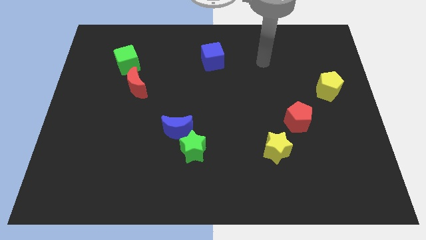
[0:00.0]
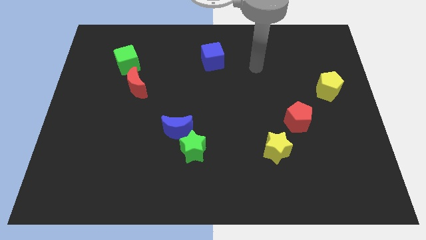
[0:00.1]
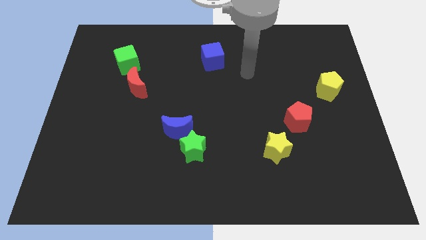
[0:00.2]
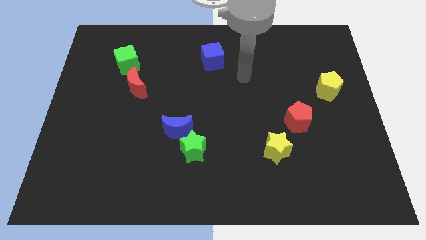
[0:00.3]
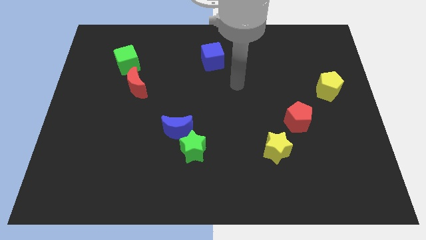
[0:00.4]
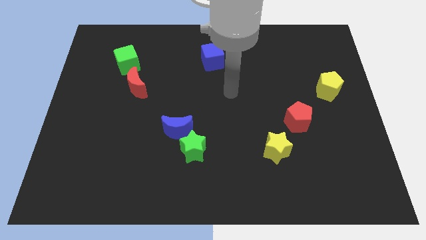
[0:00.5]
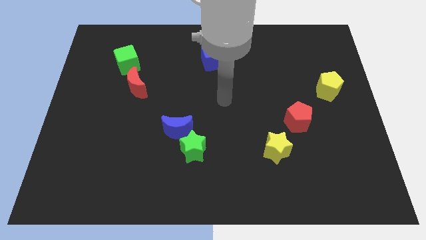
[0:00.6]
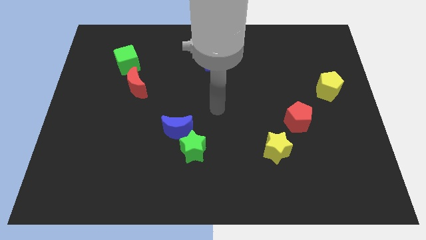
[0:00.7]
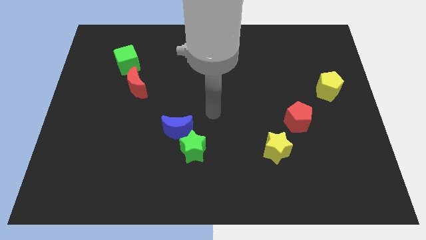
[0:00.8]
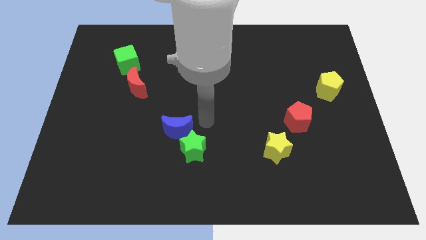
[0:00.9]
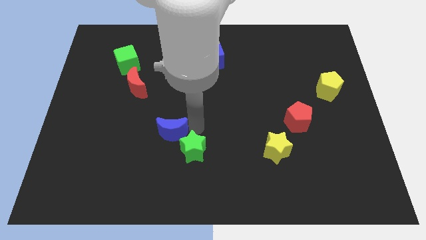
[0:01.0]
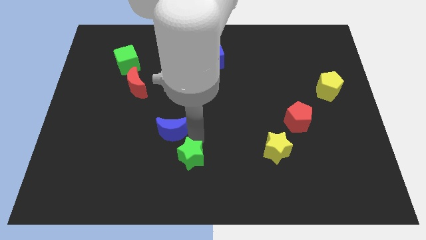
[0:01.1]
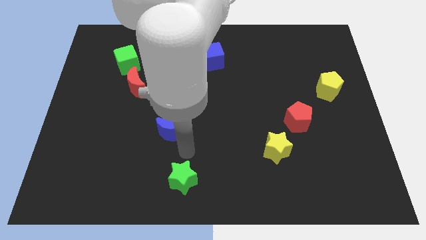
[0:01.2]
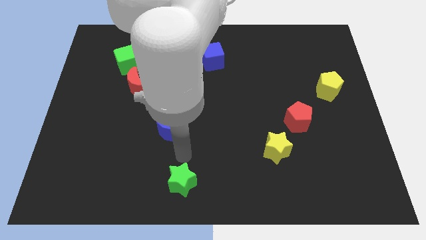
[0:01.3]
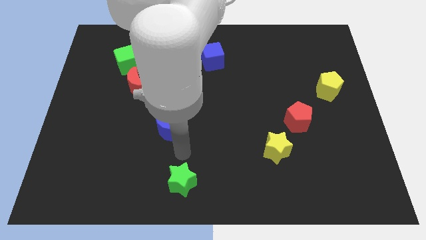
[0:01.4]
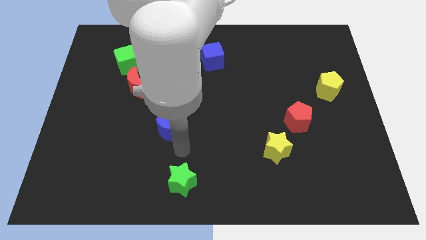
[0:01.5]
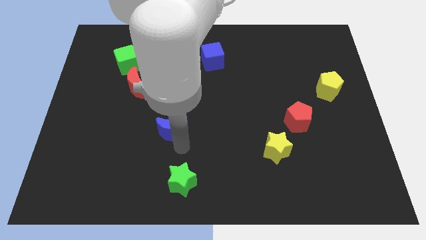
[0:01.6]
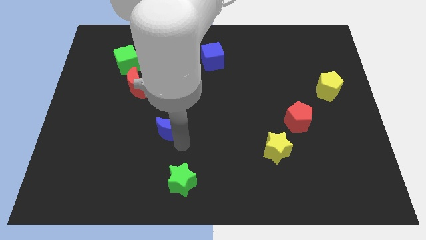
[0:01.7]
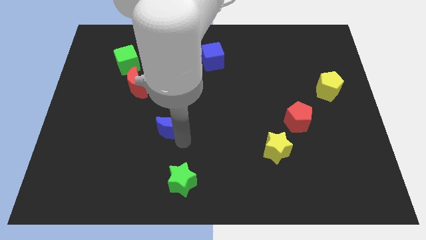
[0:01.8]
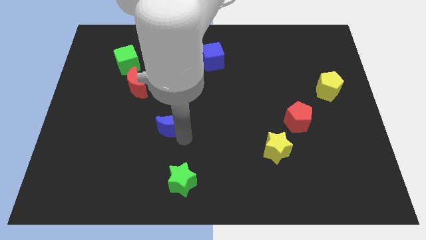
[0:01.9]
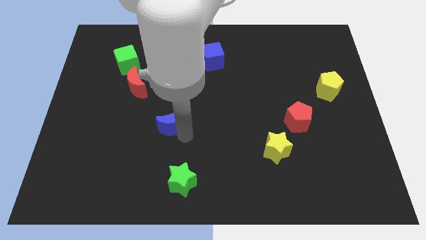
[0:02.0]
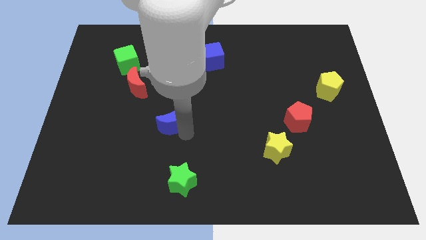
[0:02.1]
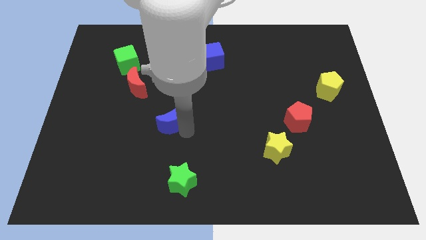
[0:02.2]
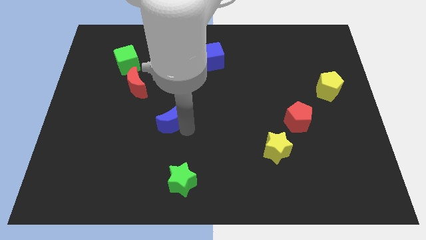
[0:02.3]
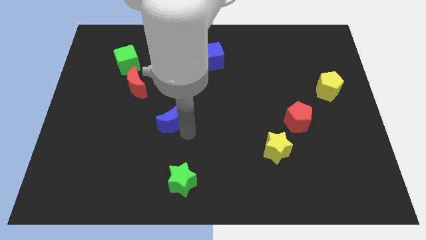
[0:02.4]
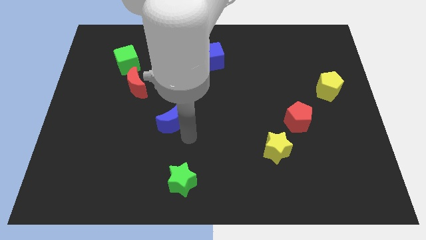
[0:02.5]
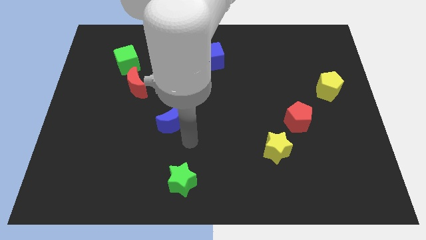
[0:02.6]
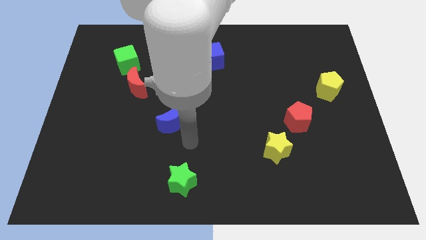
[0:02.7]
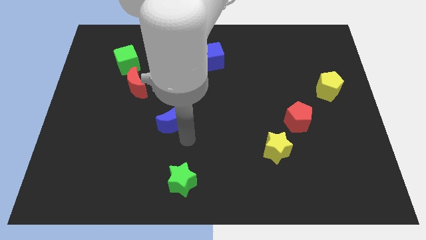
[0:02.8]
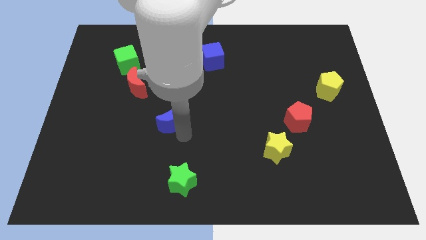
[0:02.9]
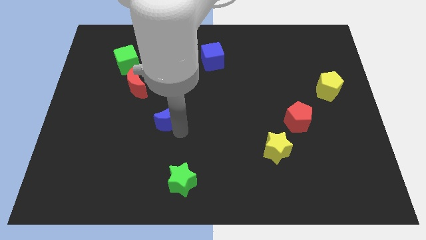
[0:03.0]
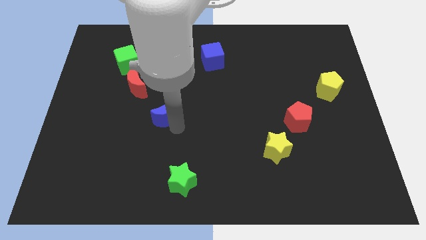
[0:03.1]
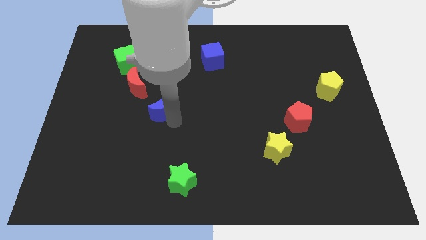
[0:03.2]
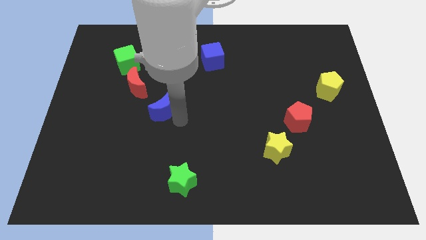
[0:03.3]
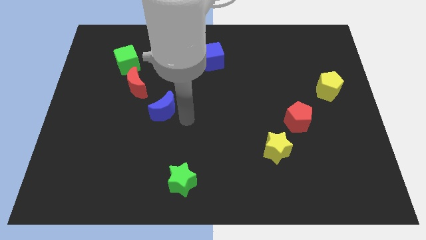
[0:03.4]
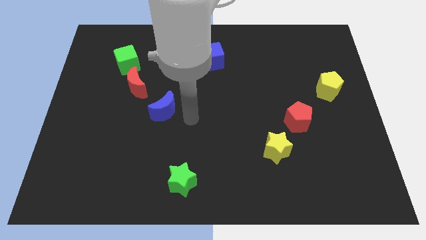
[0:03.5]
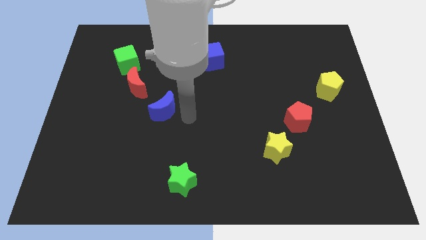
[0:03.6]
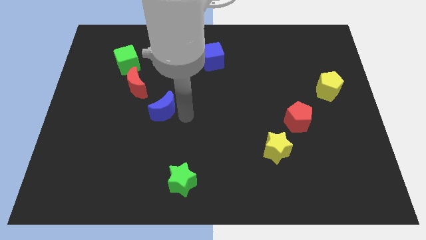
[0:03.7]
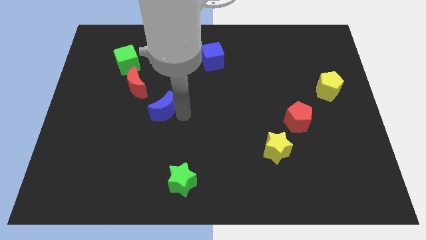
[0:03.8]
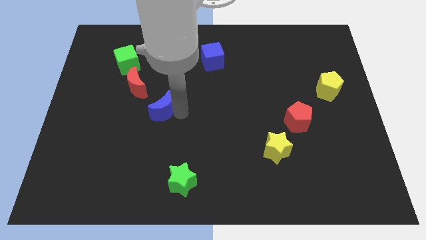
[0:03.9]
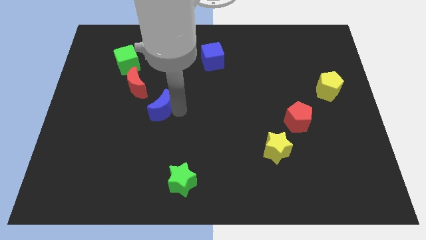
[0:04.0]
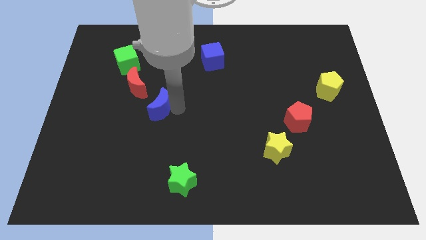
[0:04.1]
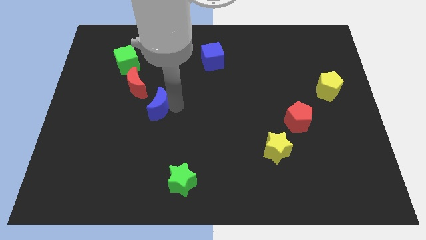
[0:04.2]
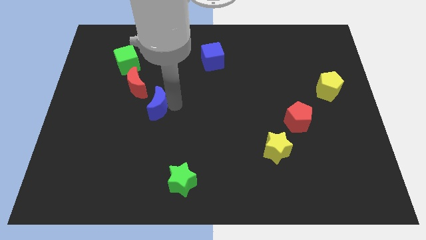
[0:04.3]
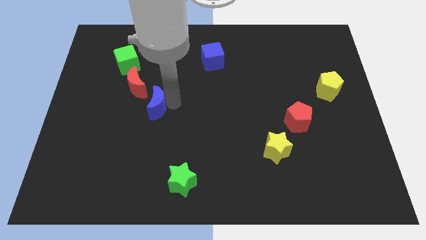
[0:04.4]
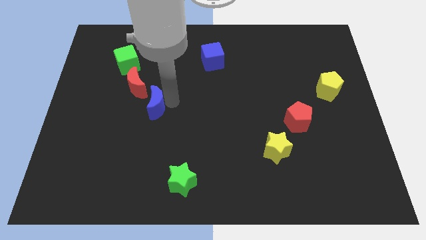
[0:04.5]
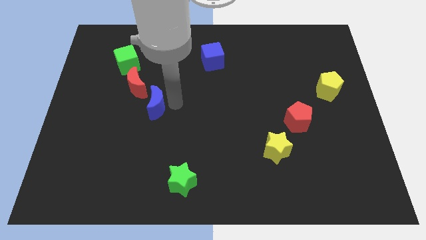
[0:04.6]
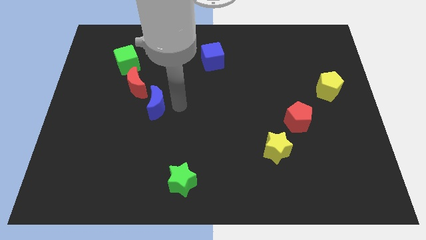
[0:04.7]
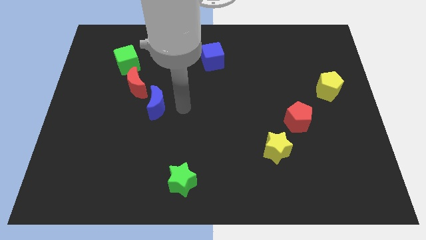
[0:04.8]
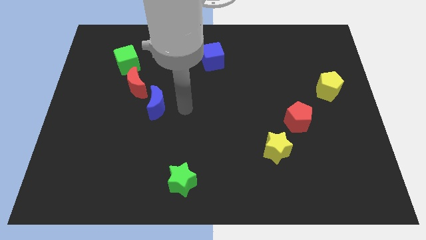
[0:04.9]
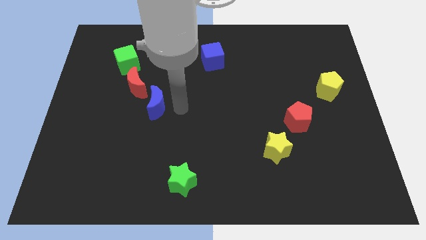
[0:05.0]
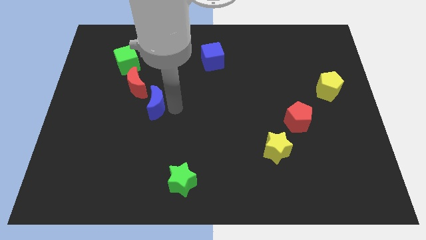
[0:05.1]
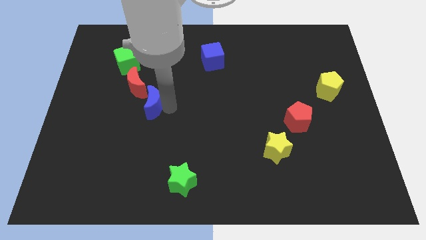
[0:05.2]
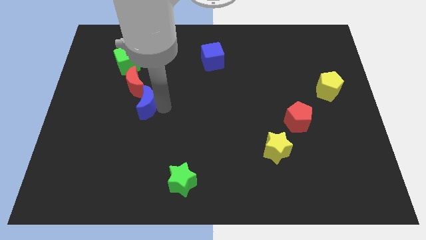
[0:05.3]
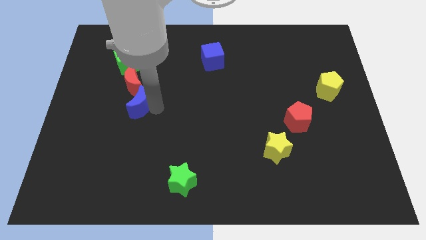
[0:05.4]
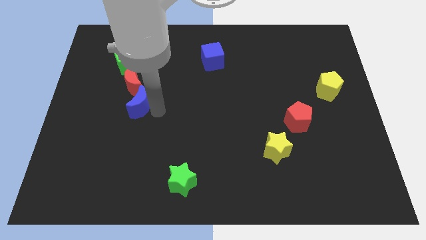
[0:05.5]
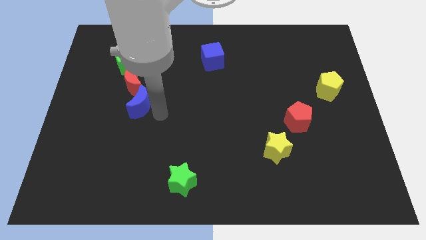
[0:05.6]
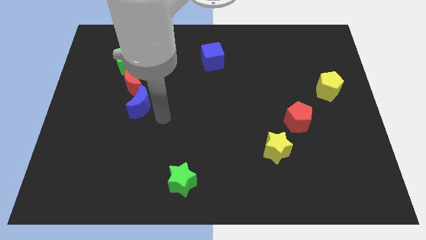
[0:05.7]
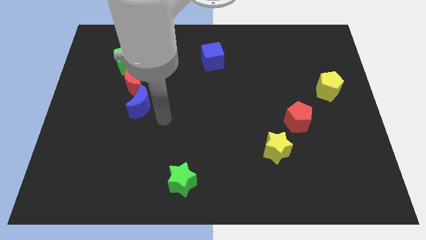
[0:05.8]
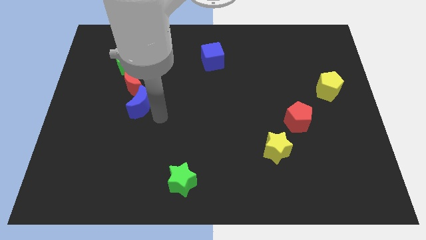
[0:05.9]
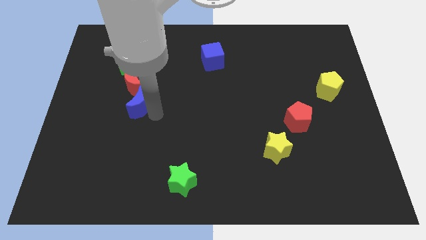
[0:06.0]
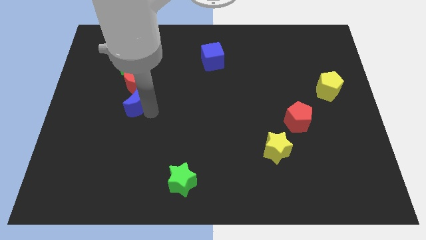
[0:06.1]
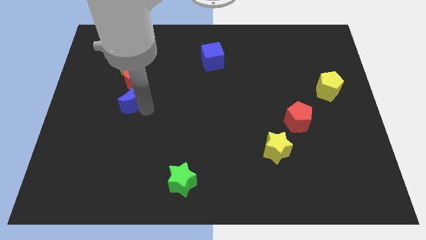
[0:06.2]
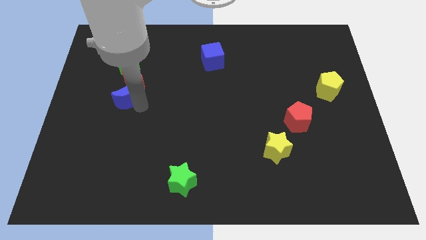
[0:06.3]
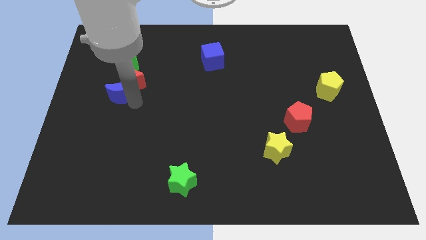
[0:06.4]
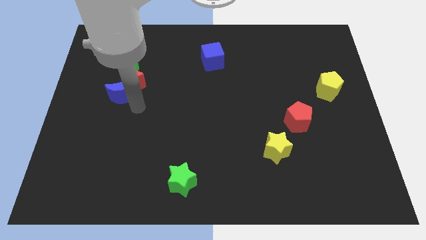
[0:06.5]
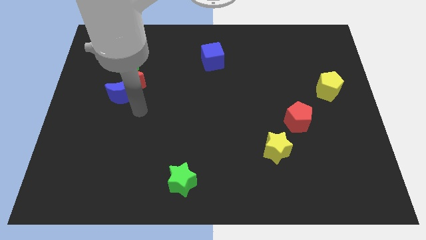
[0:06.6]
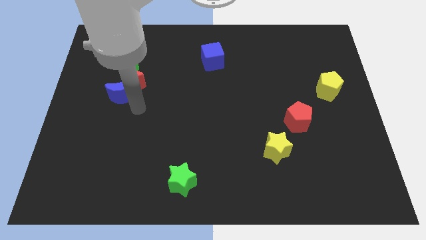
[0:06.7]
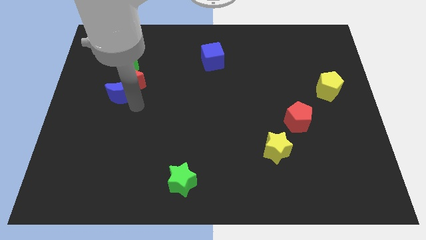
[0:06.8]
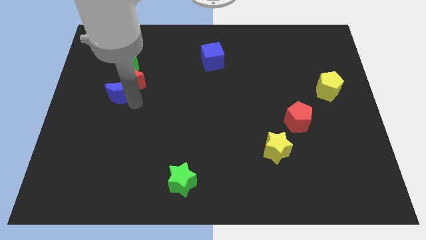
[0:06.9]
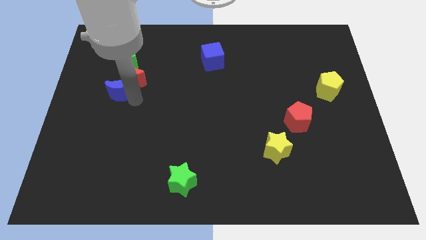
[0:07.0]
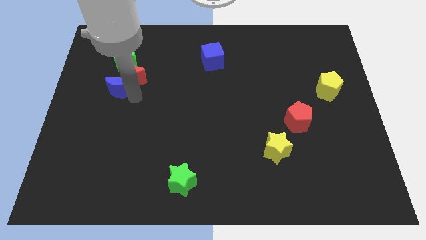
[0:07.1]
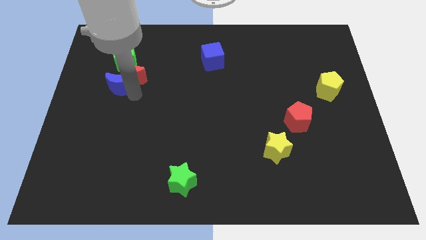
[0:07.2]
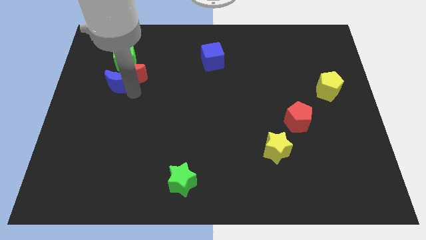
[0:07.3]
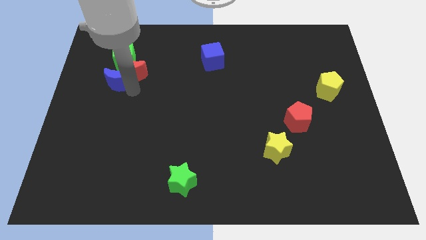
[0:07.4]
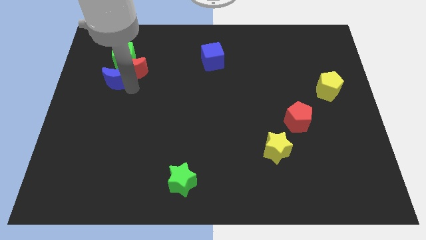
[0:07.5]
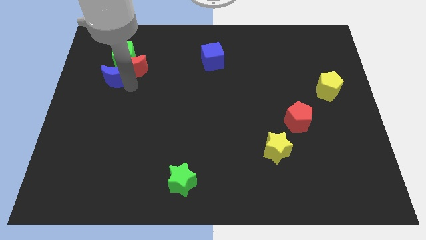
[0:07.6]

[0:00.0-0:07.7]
push the blue moon to the bottom left of the green cube

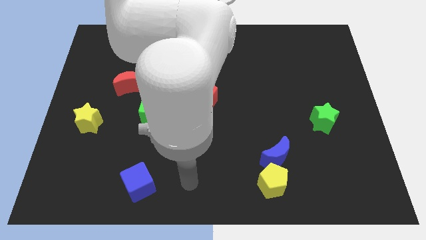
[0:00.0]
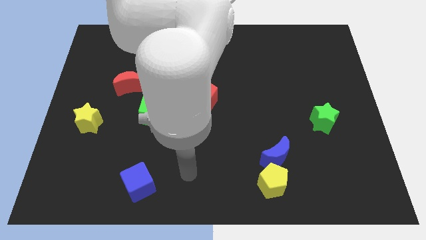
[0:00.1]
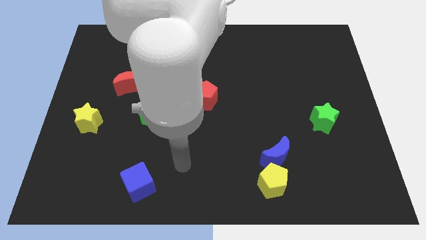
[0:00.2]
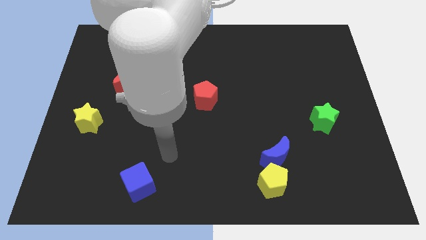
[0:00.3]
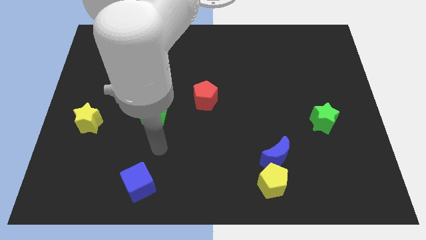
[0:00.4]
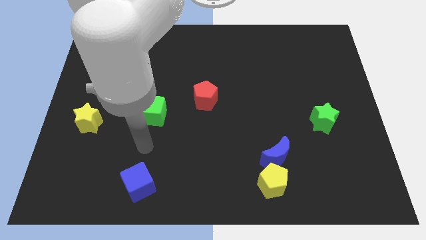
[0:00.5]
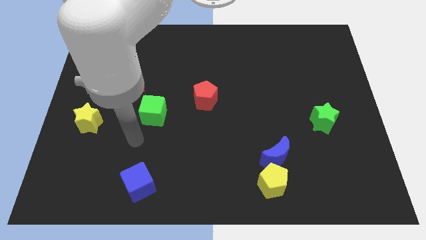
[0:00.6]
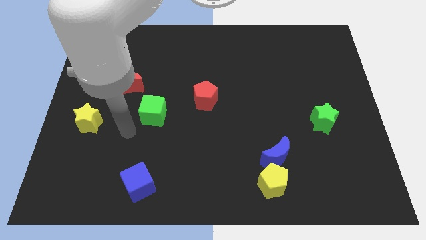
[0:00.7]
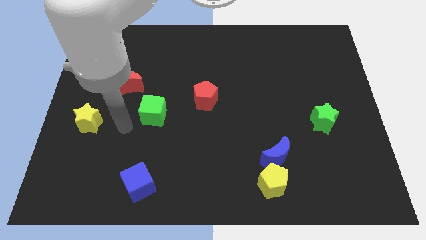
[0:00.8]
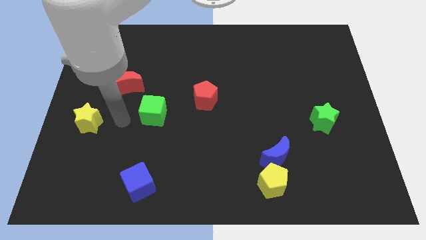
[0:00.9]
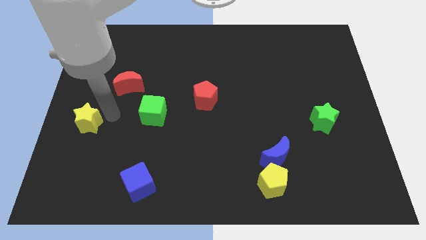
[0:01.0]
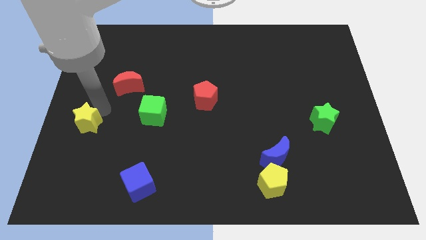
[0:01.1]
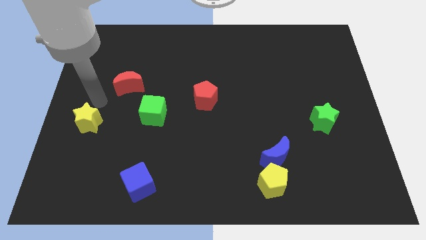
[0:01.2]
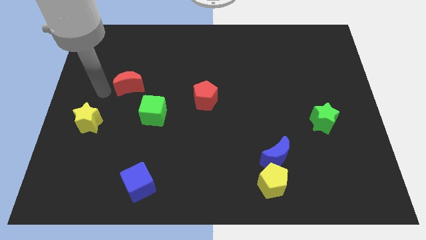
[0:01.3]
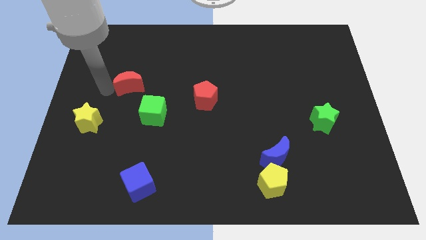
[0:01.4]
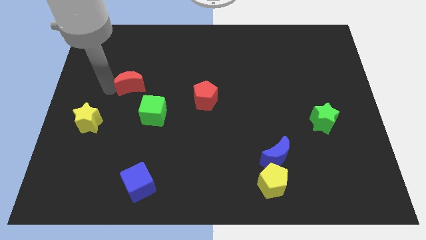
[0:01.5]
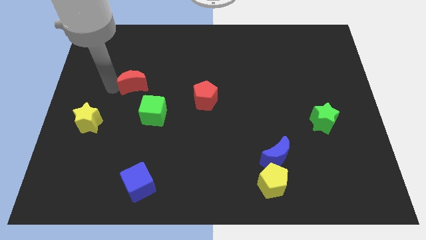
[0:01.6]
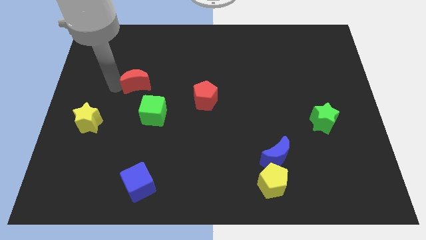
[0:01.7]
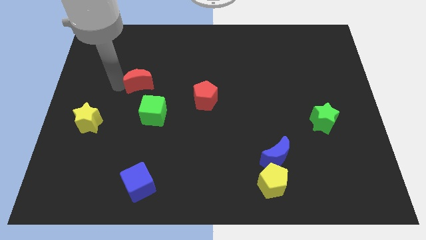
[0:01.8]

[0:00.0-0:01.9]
move the red moon to the top side of the green cube
